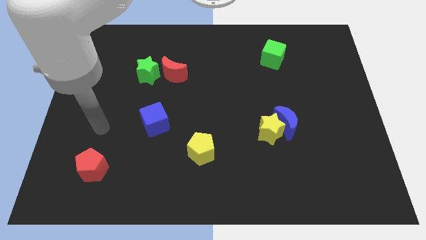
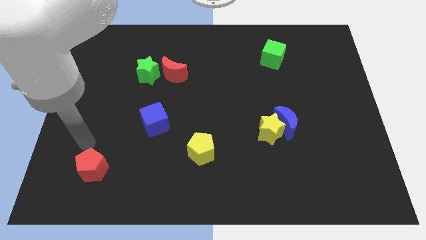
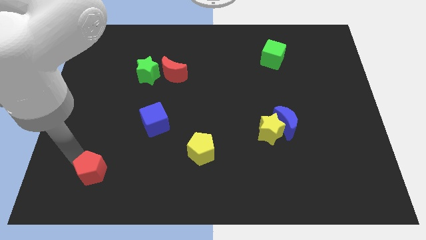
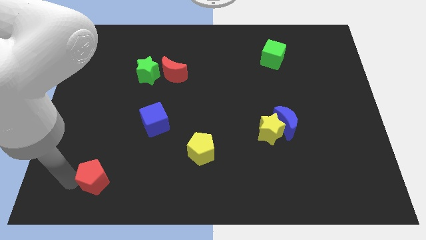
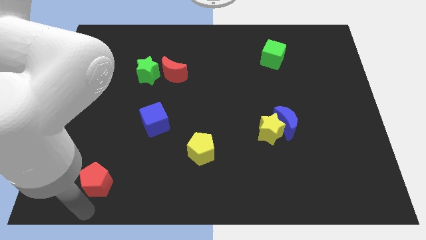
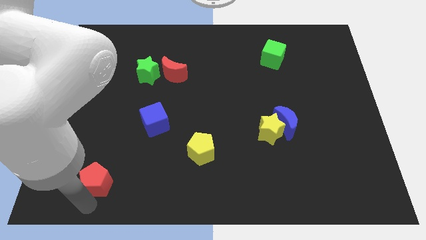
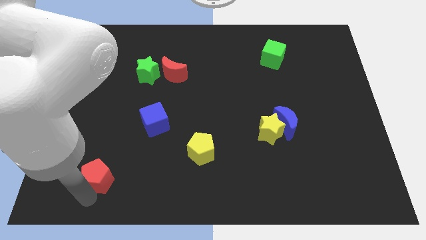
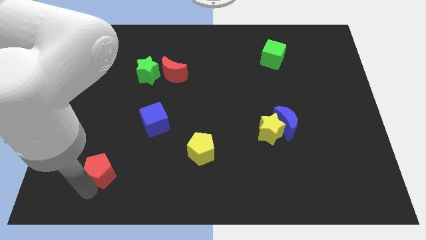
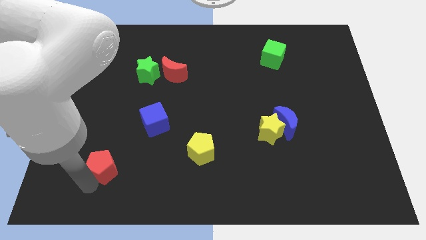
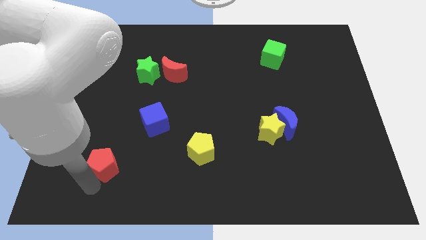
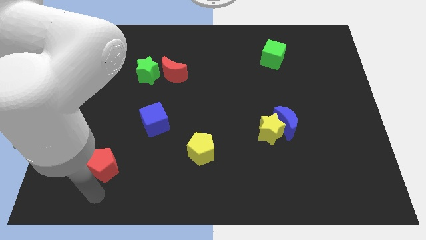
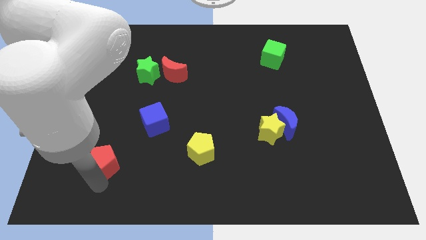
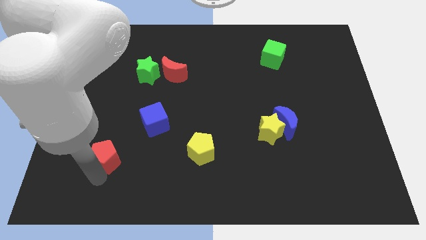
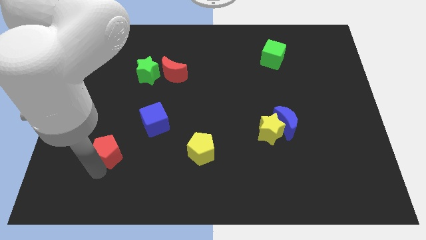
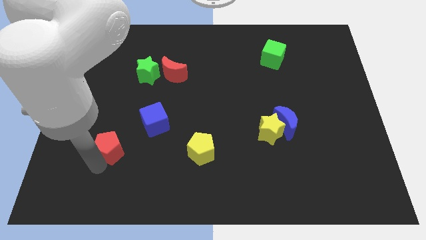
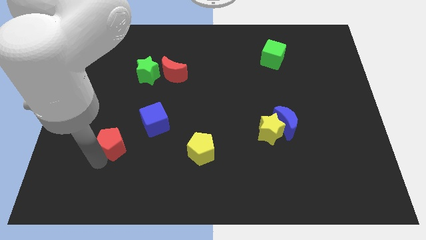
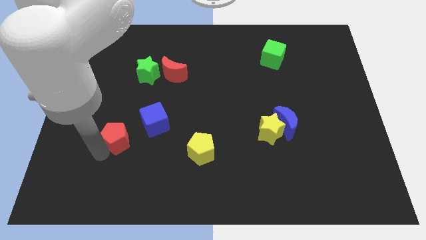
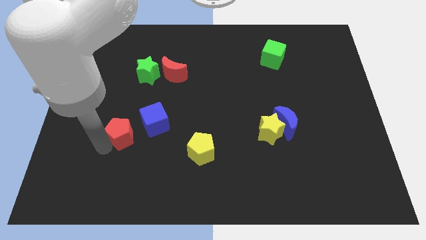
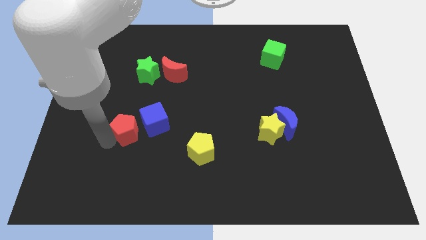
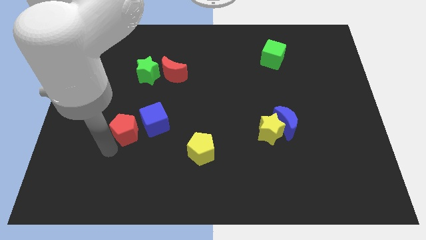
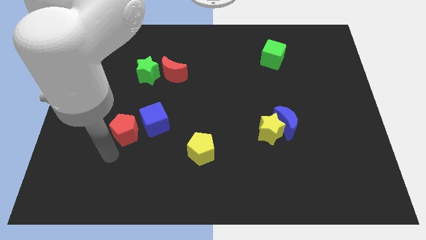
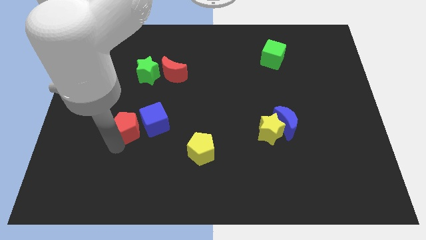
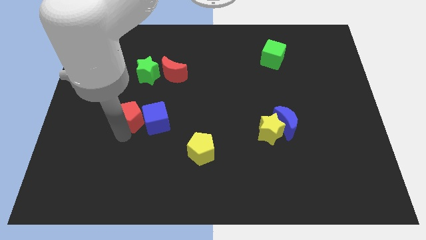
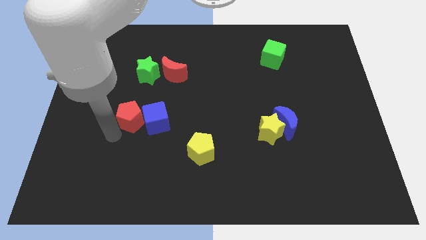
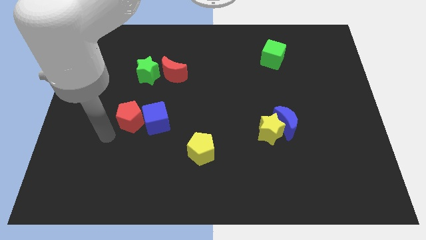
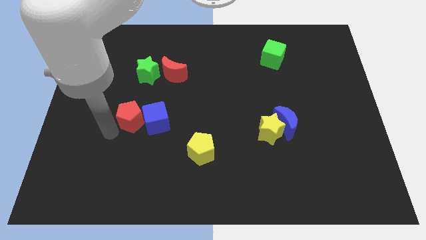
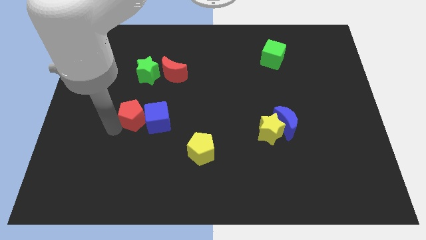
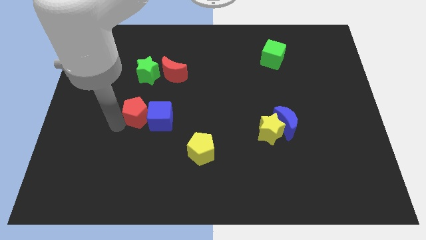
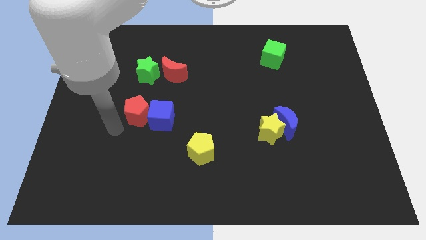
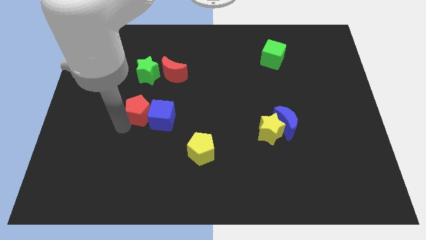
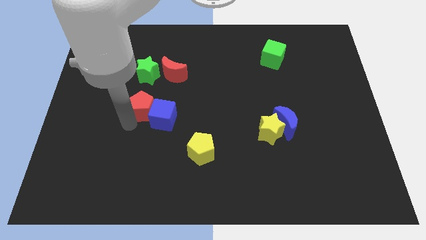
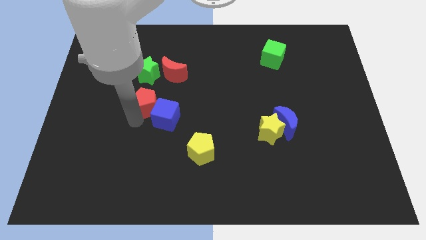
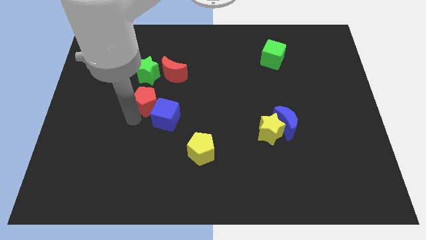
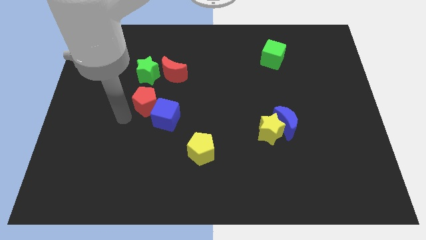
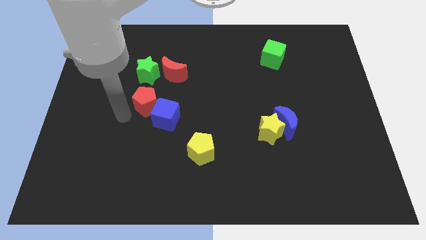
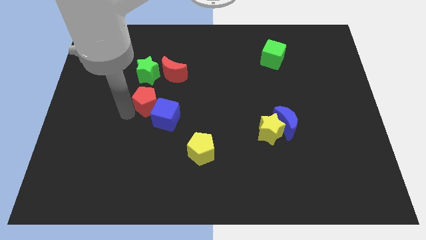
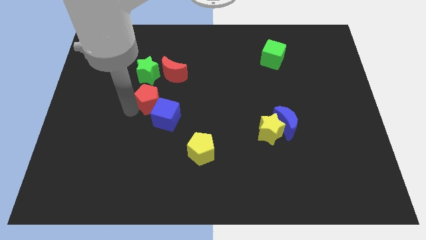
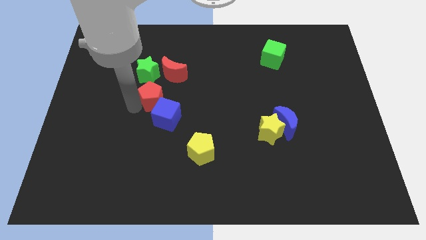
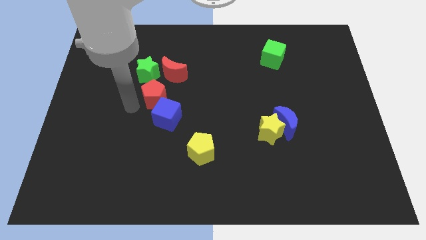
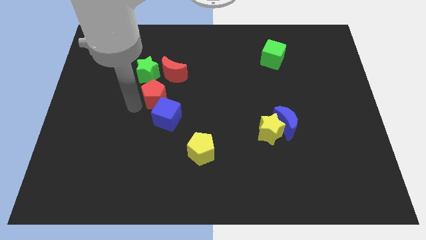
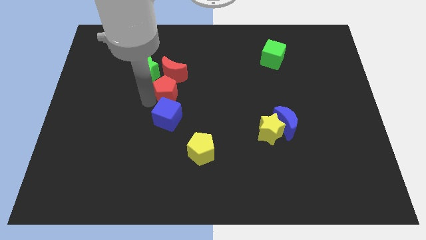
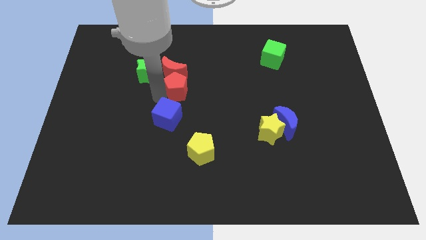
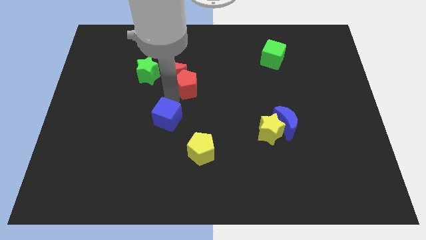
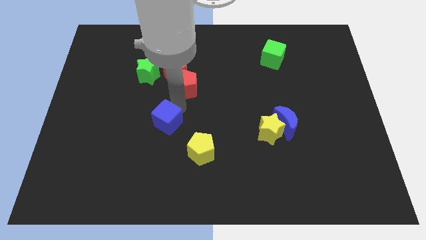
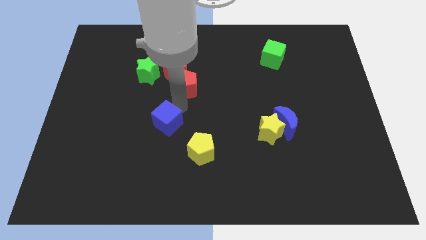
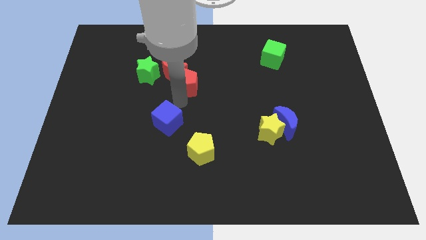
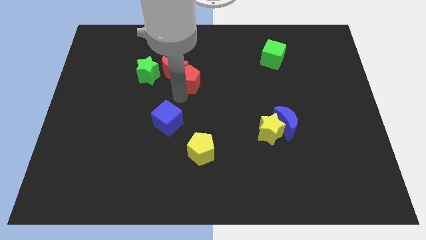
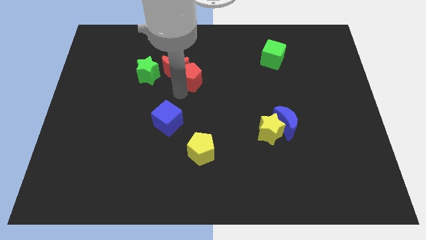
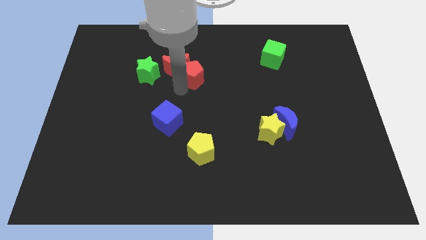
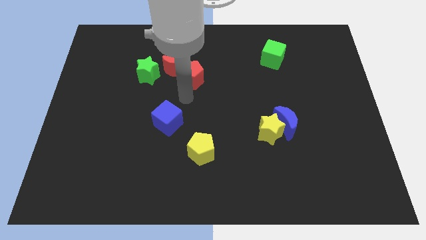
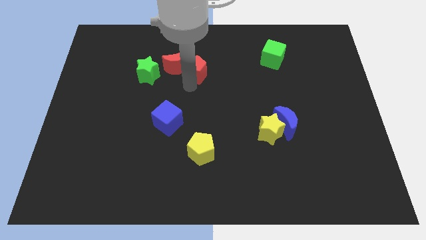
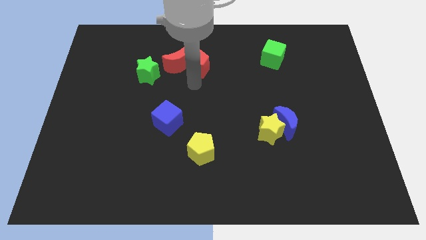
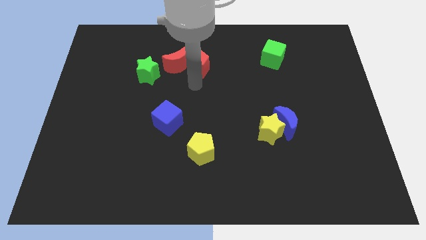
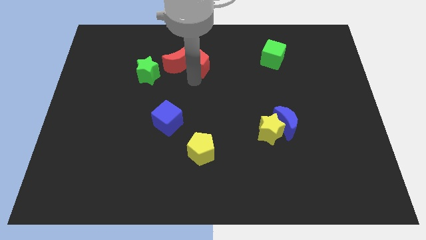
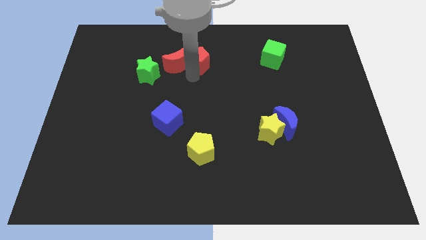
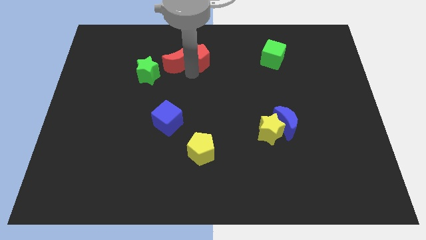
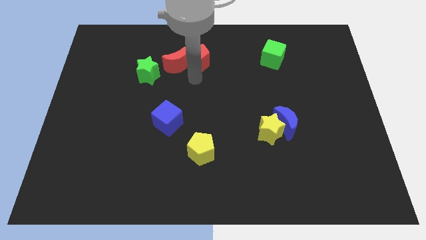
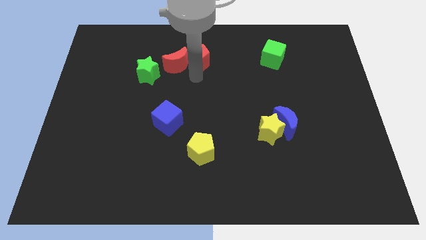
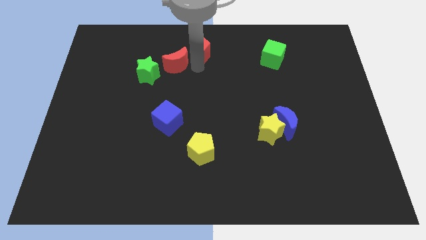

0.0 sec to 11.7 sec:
push the red pentagon to the towards your base

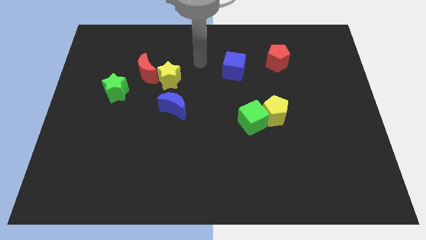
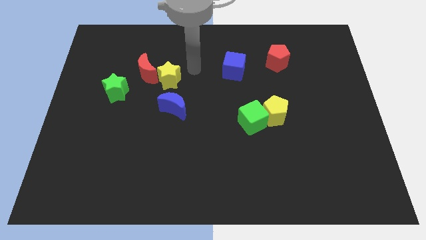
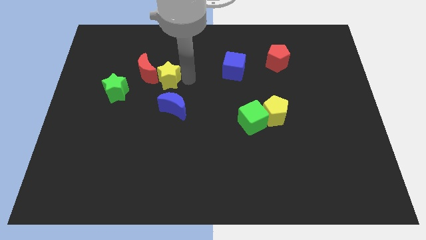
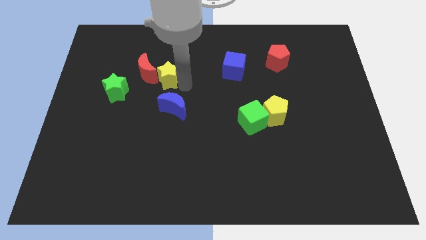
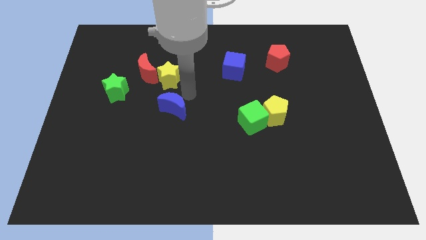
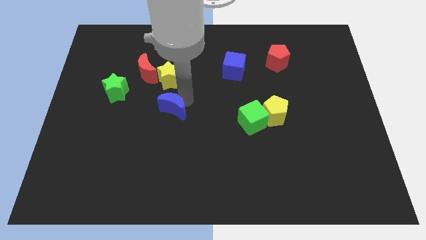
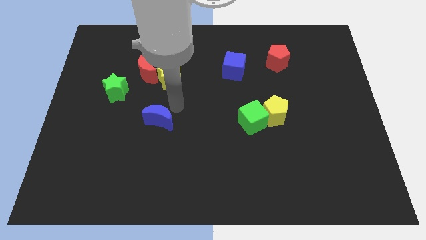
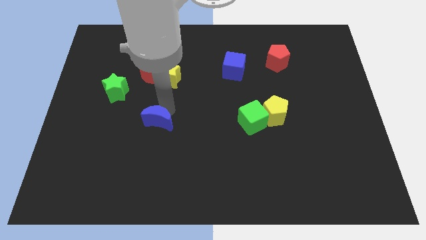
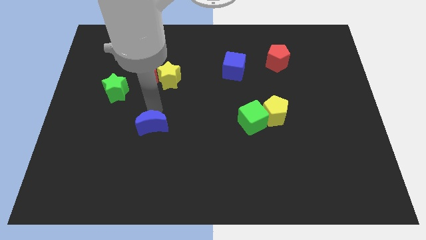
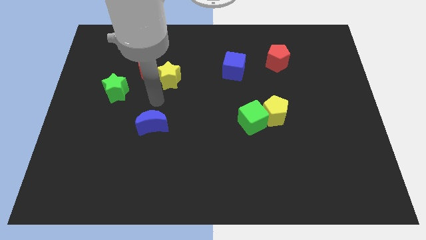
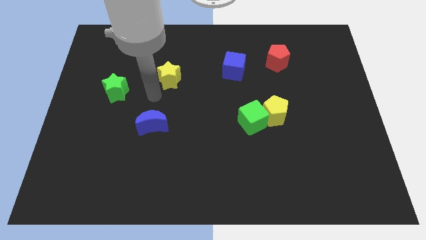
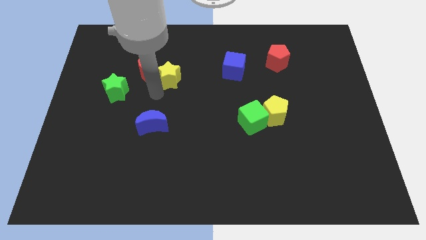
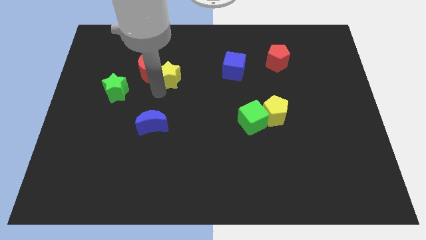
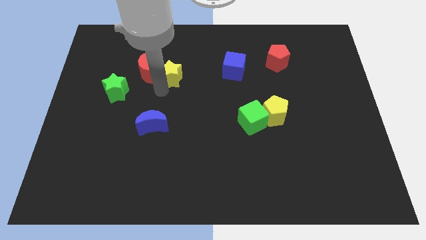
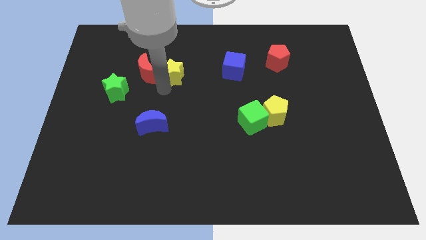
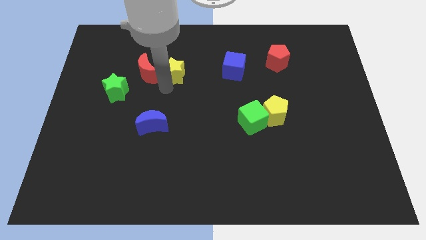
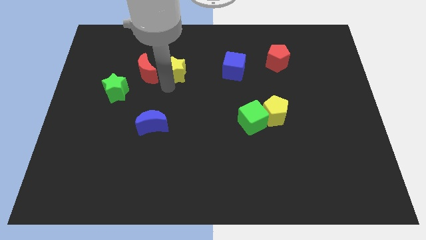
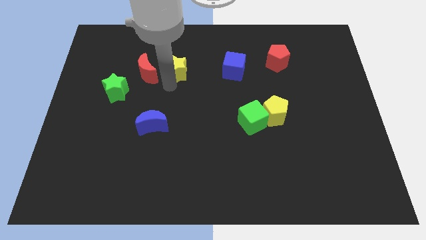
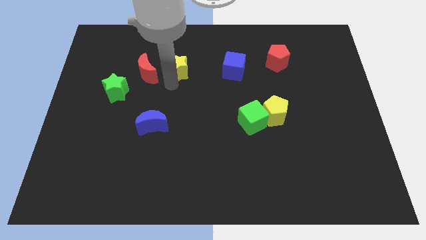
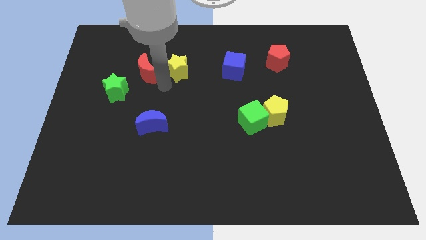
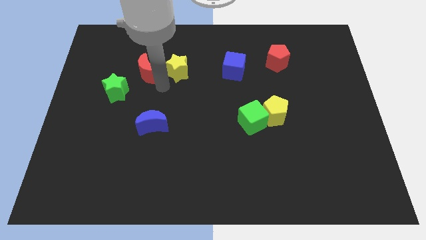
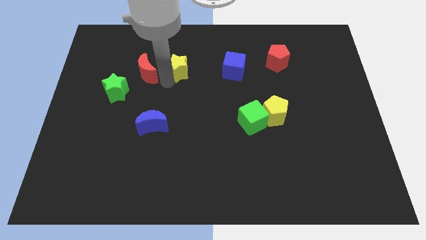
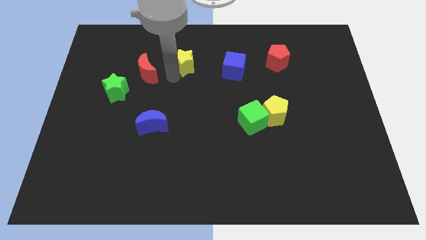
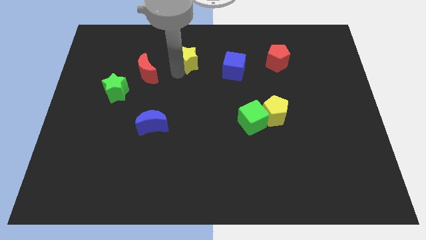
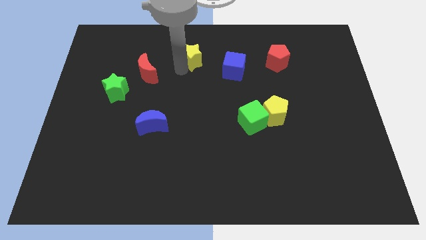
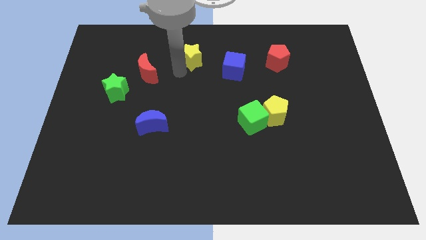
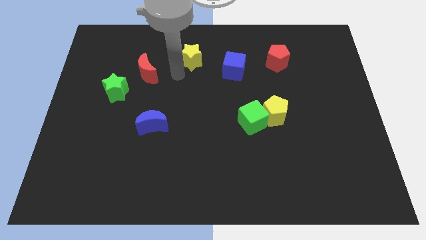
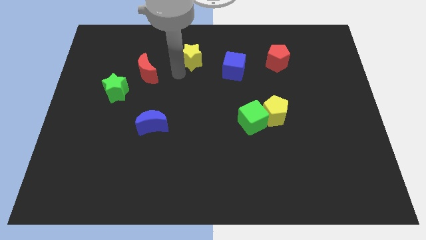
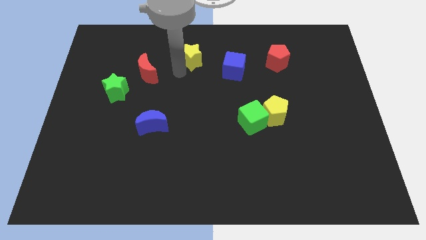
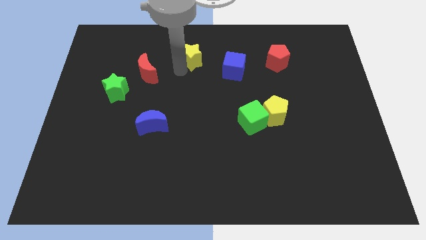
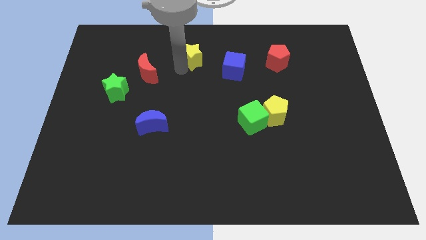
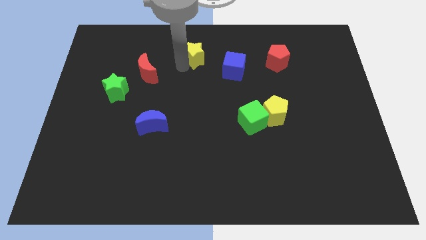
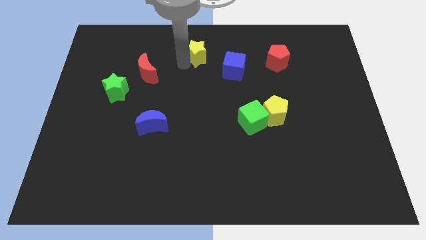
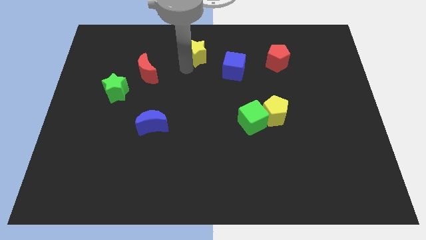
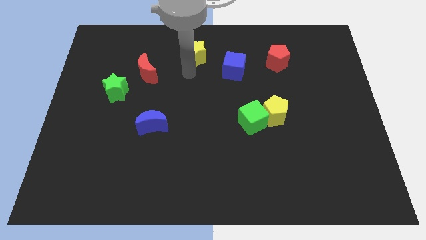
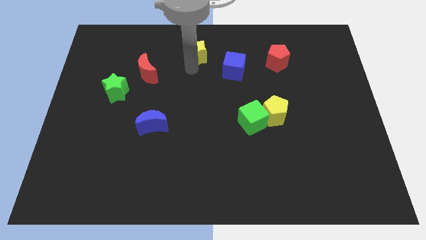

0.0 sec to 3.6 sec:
move the yellow star to the top
